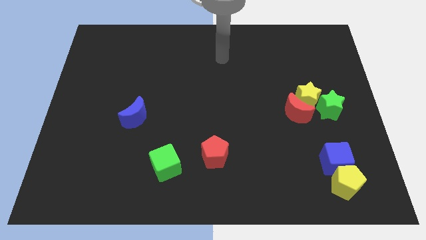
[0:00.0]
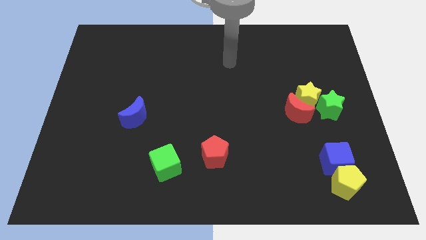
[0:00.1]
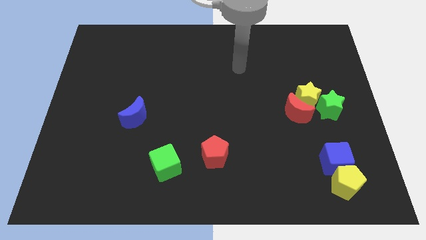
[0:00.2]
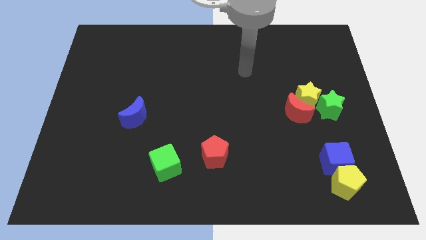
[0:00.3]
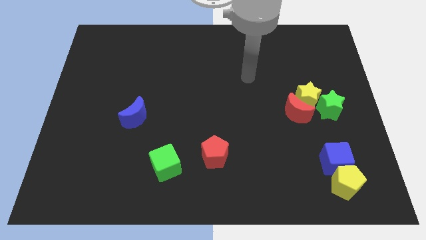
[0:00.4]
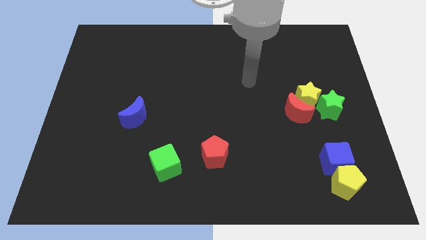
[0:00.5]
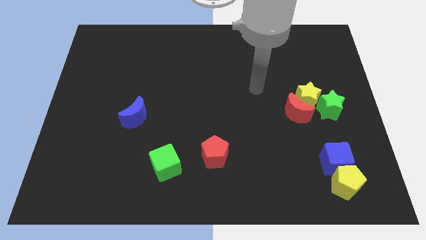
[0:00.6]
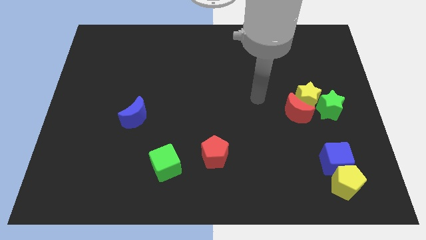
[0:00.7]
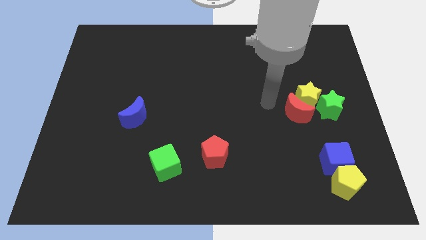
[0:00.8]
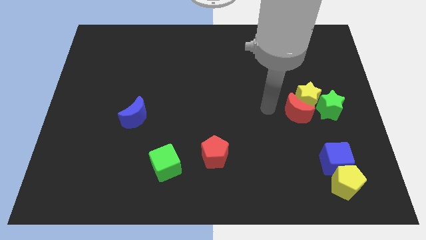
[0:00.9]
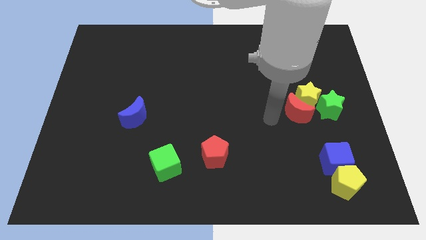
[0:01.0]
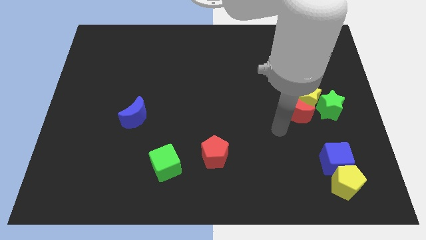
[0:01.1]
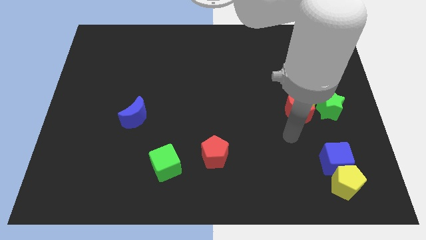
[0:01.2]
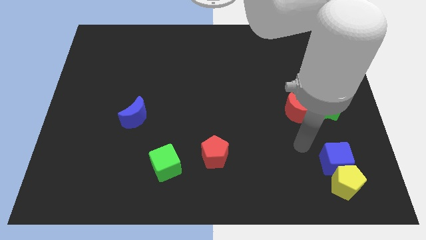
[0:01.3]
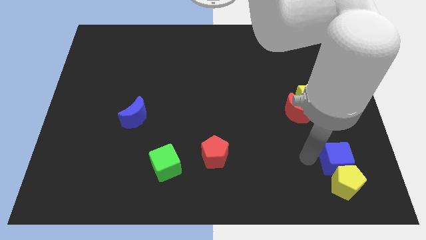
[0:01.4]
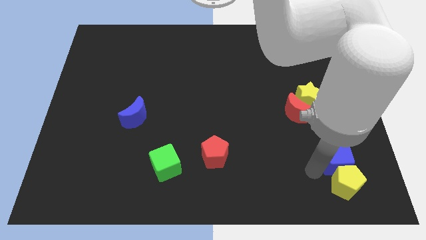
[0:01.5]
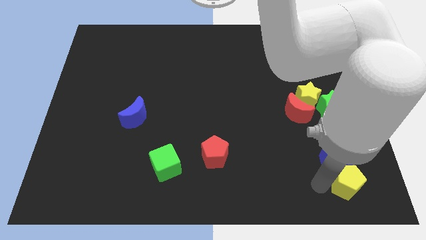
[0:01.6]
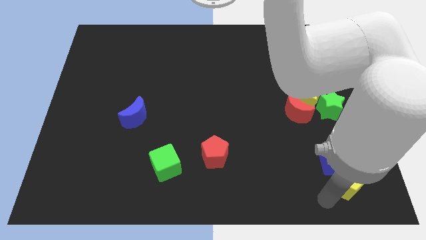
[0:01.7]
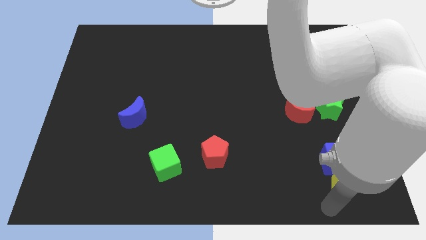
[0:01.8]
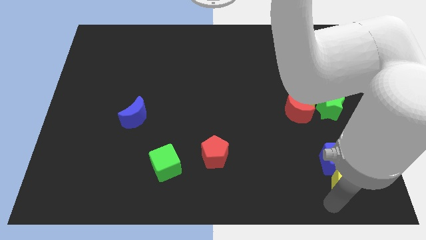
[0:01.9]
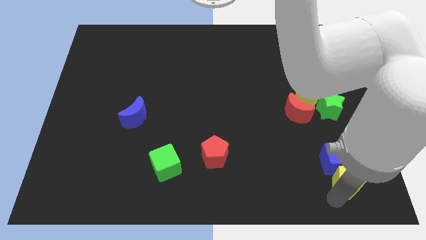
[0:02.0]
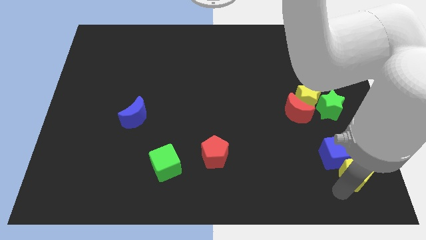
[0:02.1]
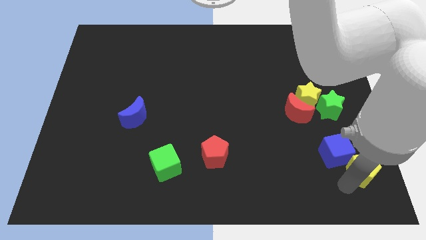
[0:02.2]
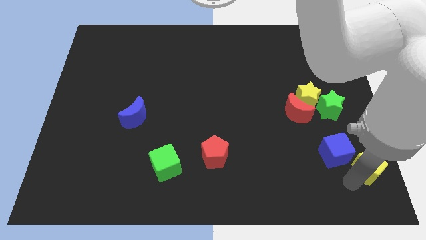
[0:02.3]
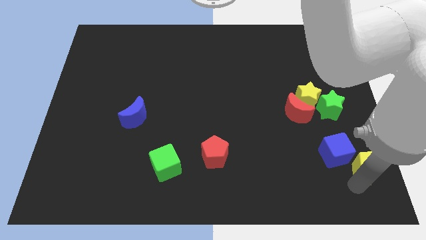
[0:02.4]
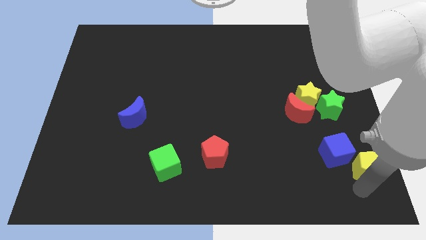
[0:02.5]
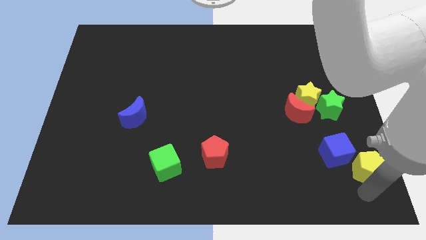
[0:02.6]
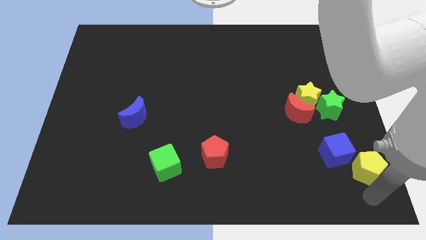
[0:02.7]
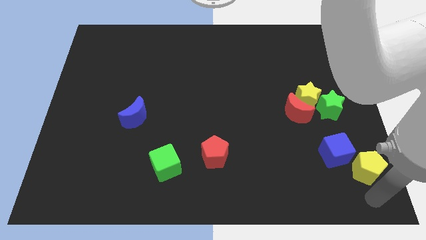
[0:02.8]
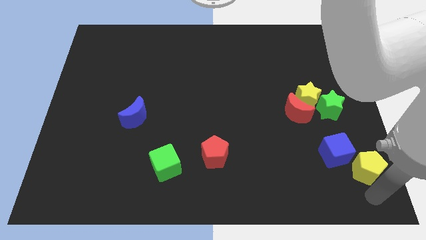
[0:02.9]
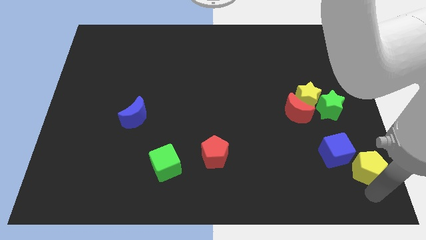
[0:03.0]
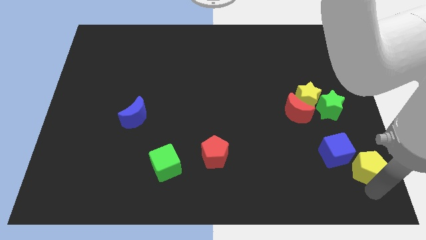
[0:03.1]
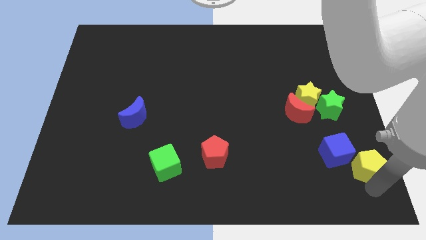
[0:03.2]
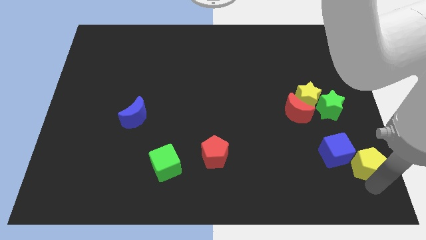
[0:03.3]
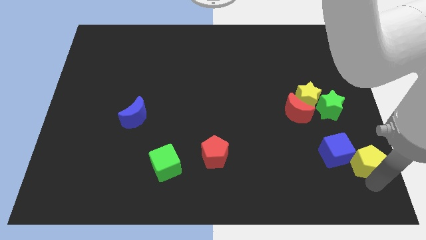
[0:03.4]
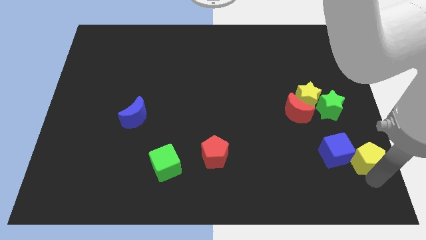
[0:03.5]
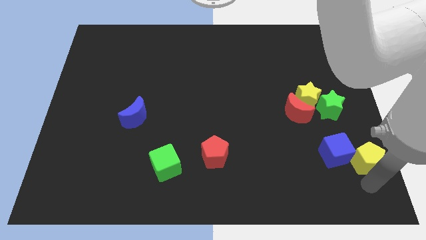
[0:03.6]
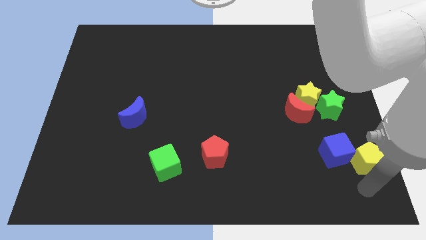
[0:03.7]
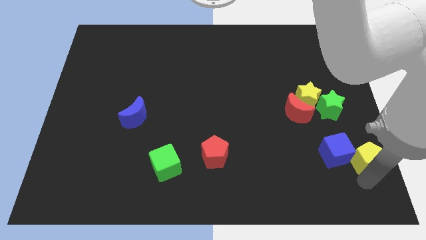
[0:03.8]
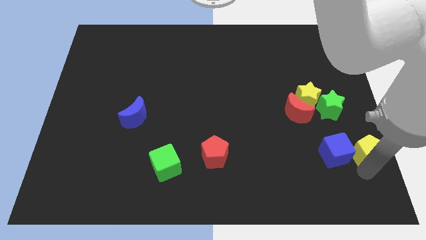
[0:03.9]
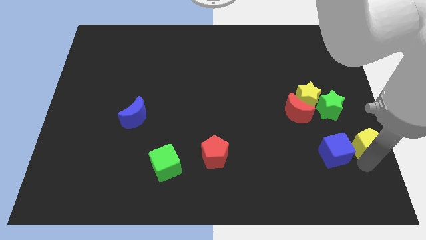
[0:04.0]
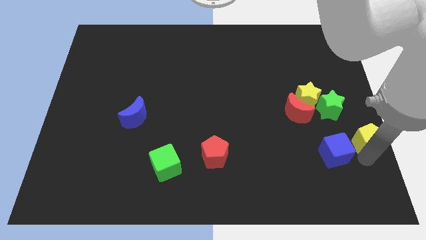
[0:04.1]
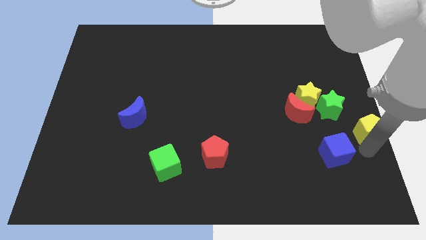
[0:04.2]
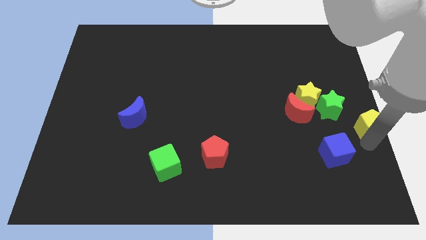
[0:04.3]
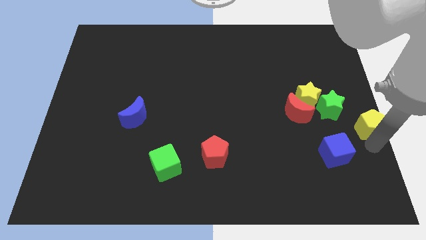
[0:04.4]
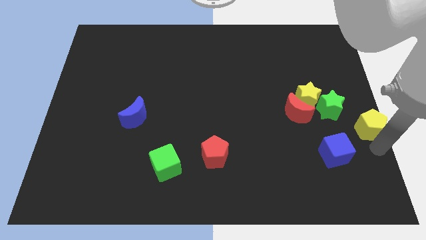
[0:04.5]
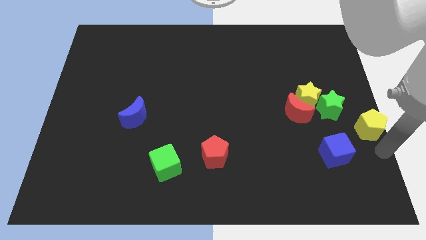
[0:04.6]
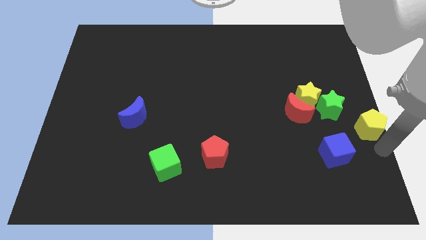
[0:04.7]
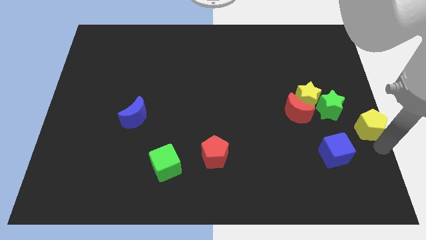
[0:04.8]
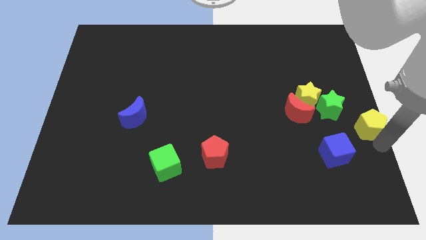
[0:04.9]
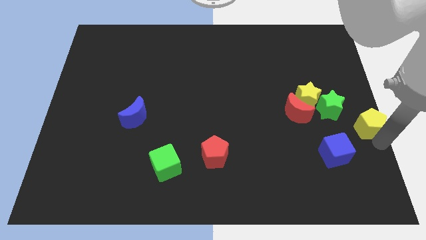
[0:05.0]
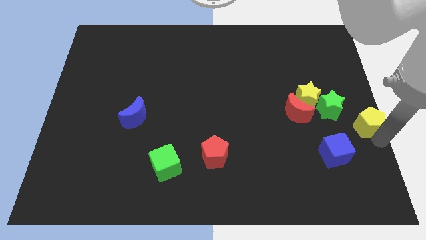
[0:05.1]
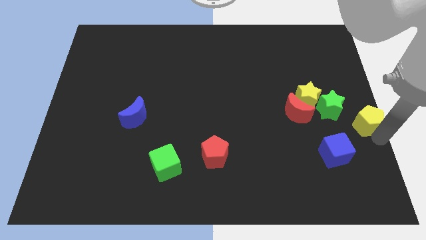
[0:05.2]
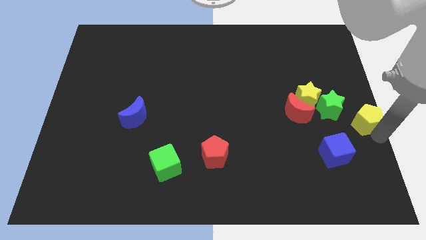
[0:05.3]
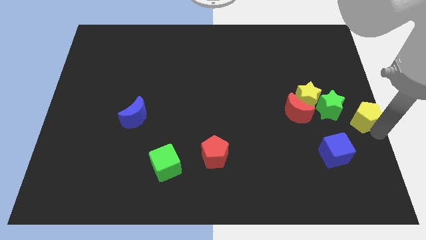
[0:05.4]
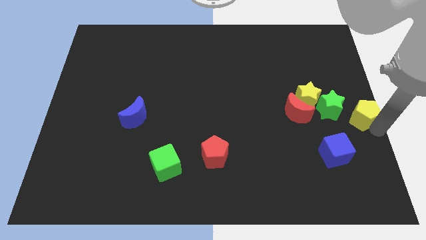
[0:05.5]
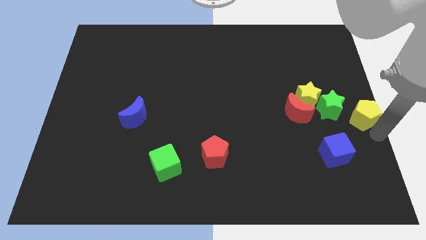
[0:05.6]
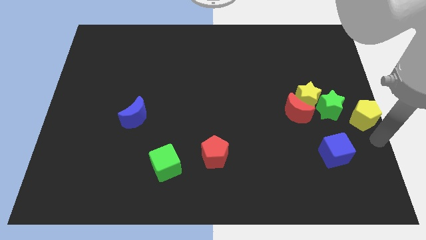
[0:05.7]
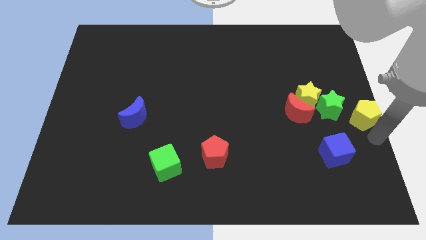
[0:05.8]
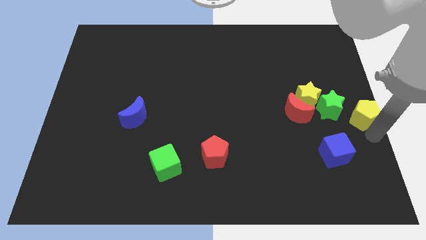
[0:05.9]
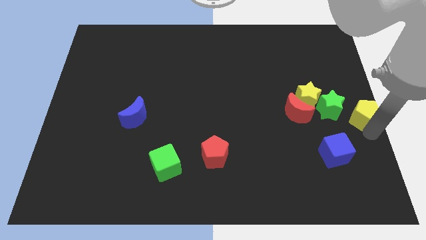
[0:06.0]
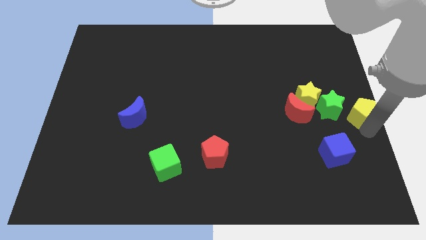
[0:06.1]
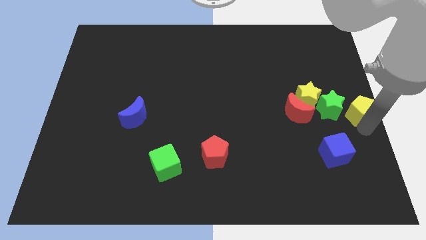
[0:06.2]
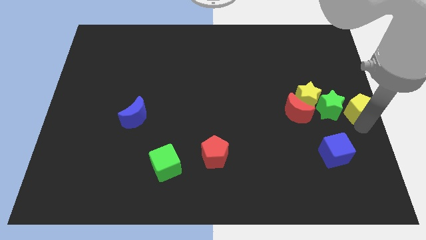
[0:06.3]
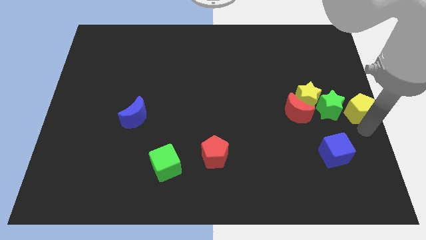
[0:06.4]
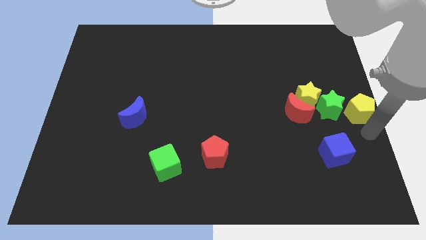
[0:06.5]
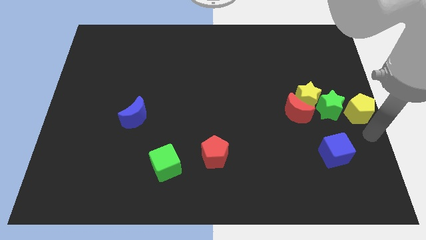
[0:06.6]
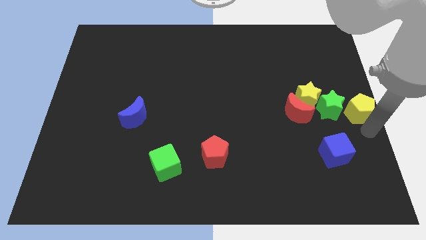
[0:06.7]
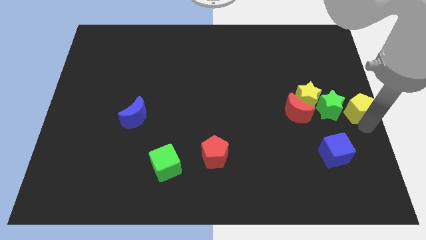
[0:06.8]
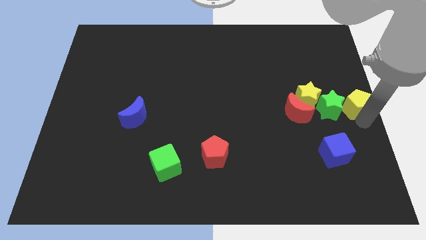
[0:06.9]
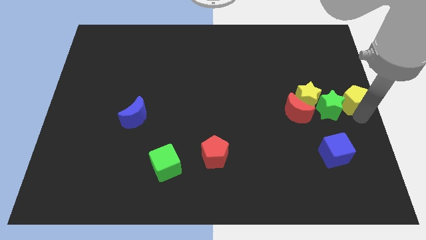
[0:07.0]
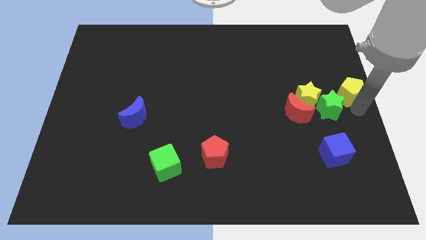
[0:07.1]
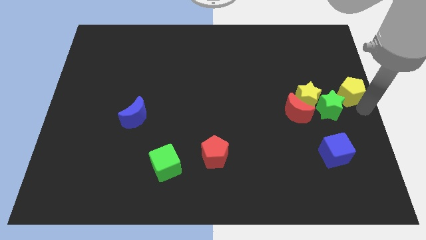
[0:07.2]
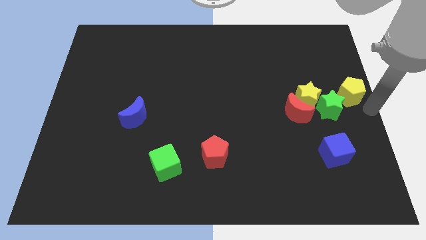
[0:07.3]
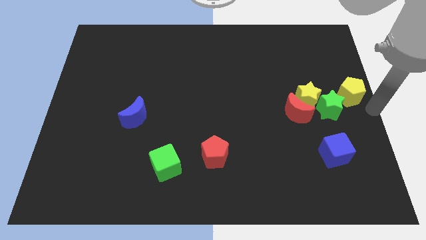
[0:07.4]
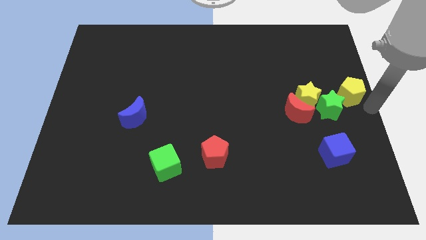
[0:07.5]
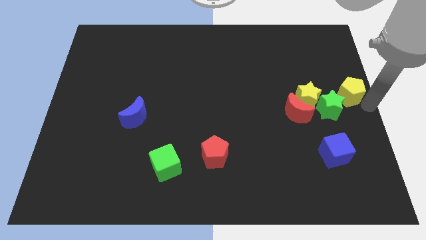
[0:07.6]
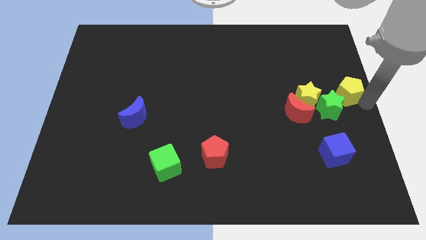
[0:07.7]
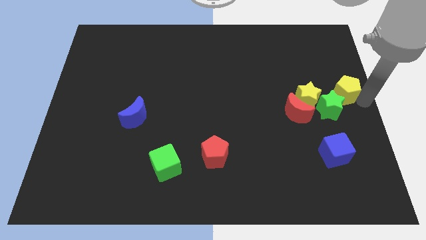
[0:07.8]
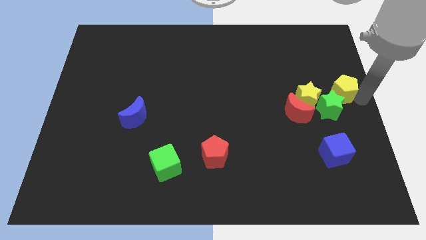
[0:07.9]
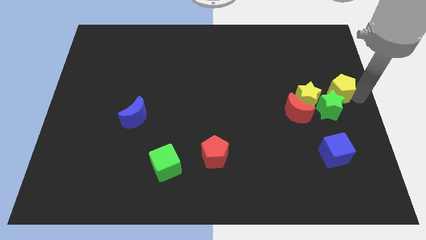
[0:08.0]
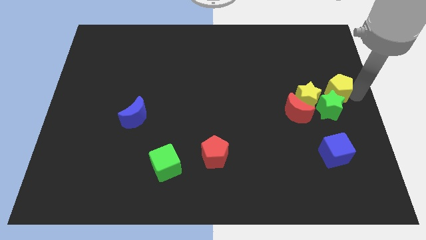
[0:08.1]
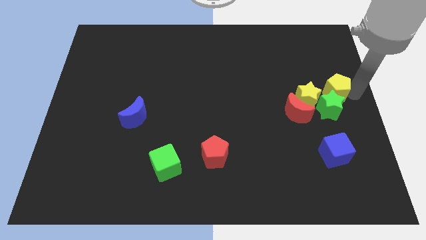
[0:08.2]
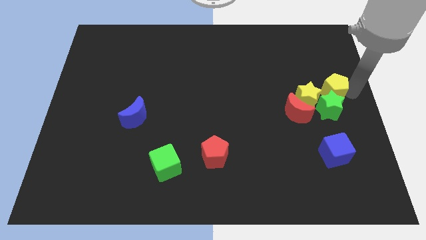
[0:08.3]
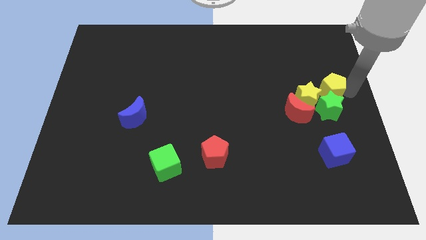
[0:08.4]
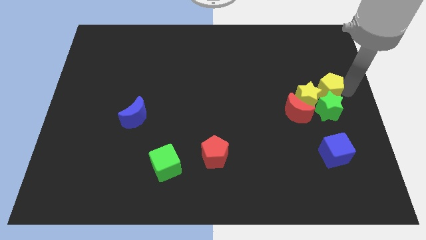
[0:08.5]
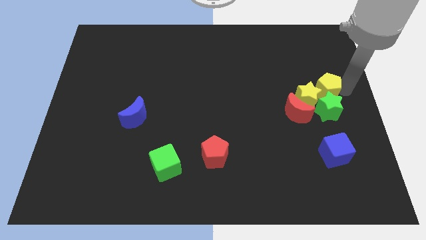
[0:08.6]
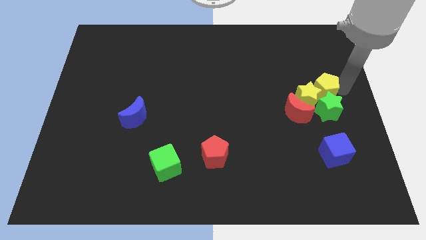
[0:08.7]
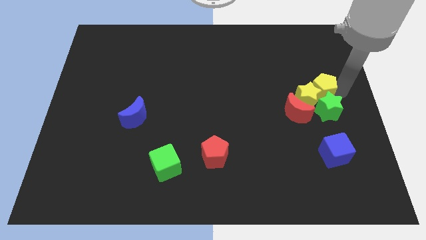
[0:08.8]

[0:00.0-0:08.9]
slide the yellow pentagon to the top of the yellow star
